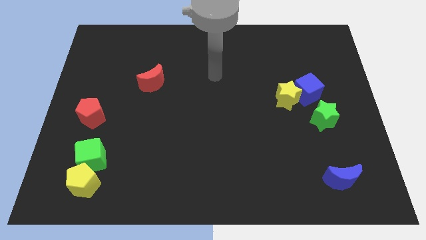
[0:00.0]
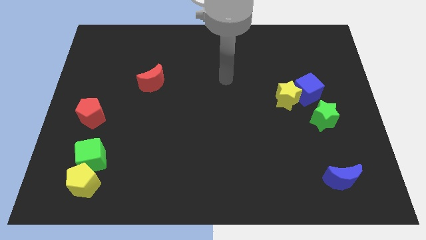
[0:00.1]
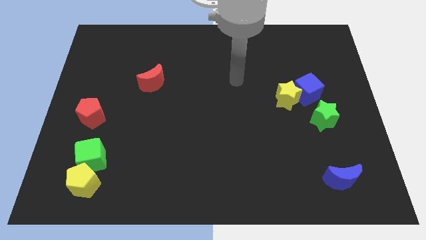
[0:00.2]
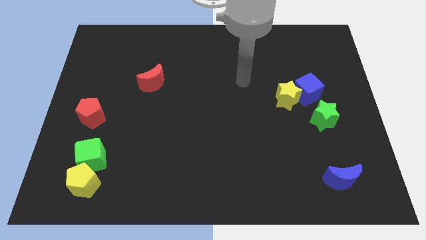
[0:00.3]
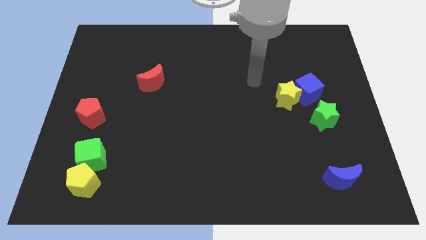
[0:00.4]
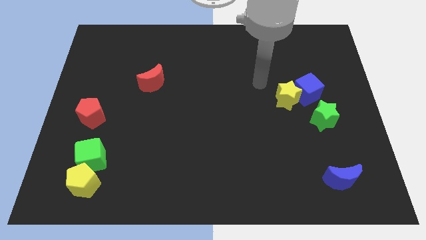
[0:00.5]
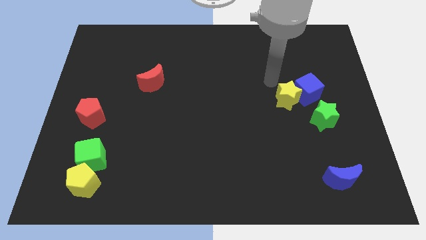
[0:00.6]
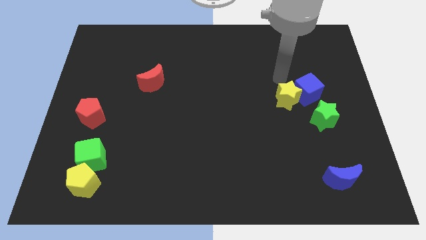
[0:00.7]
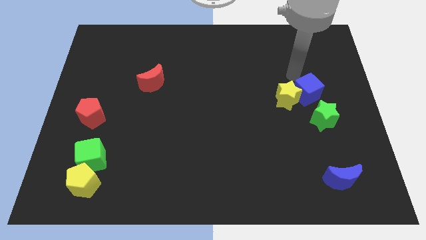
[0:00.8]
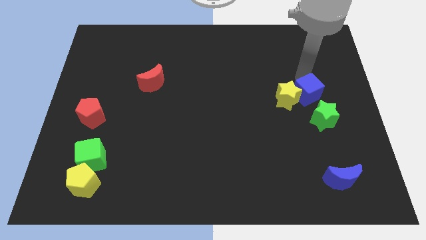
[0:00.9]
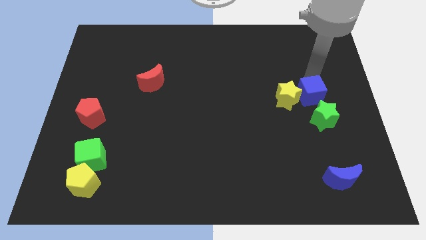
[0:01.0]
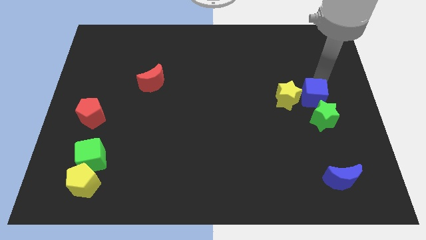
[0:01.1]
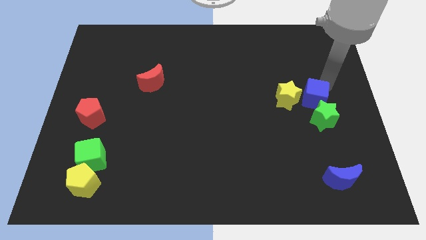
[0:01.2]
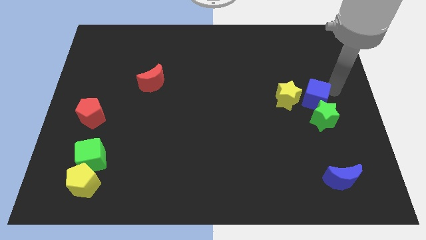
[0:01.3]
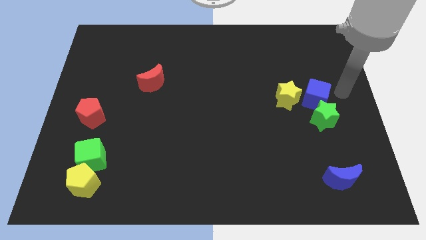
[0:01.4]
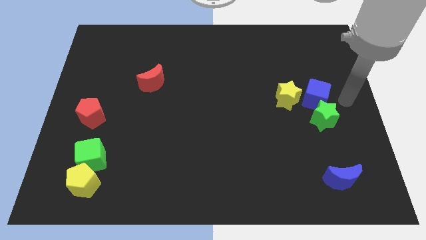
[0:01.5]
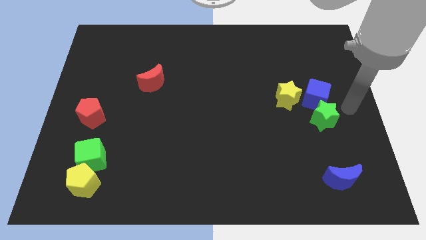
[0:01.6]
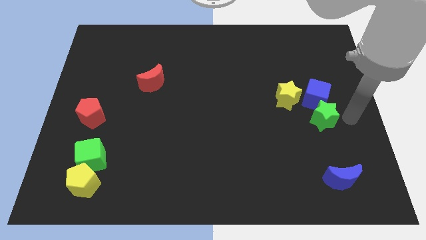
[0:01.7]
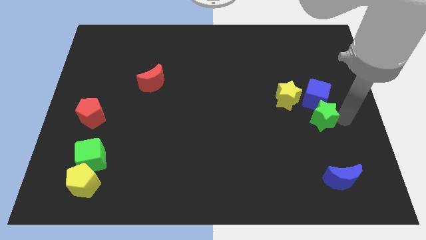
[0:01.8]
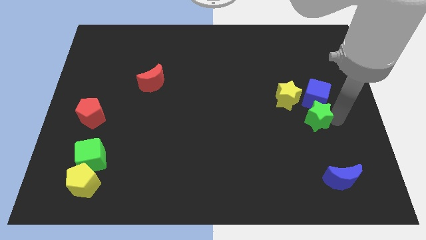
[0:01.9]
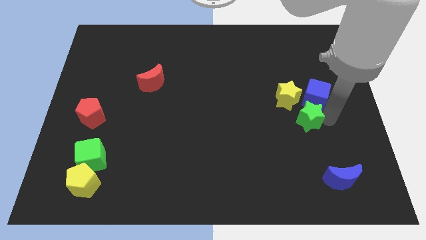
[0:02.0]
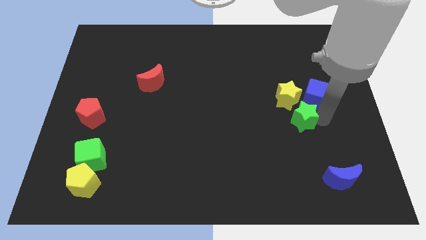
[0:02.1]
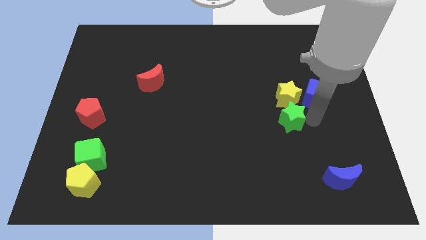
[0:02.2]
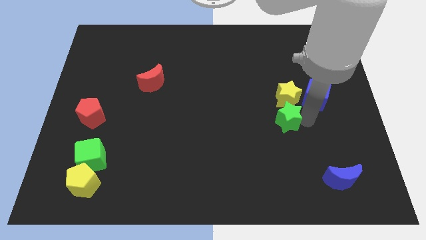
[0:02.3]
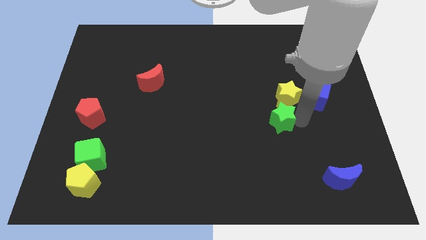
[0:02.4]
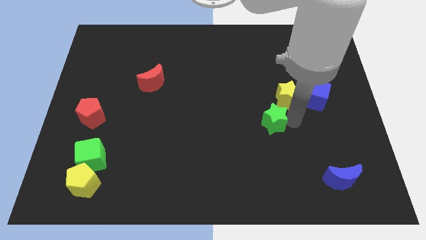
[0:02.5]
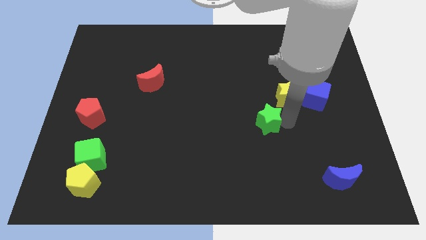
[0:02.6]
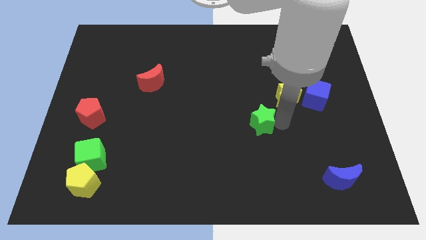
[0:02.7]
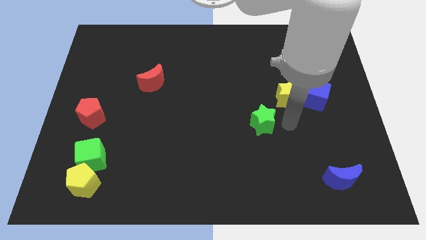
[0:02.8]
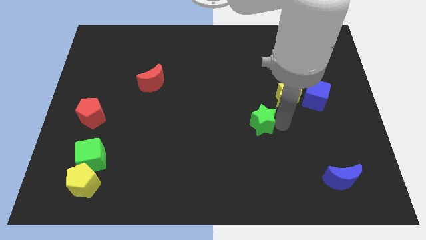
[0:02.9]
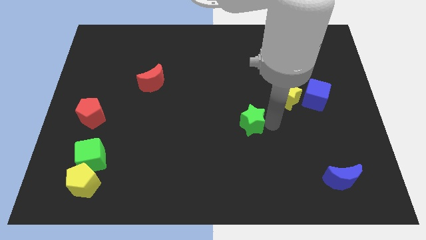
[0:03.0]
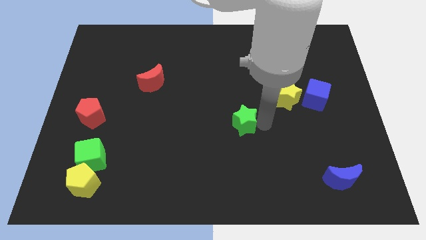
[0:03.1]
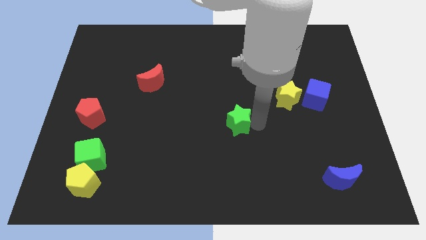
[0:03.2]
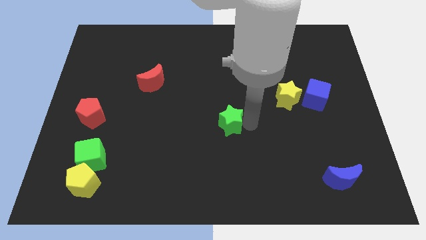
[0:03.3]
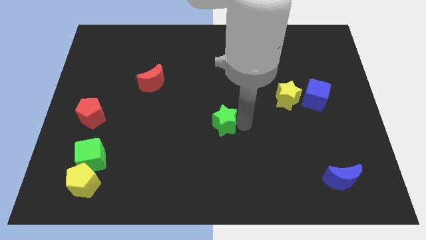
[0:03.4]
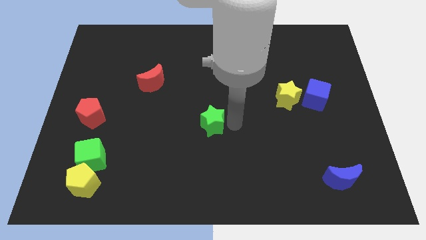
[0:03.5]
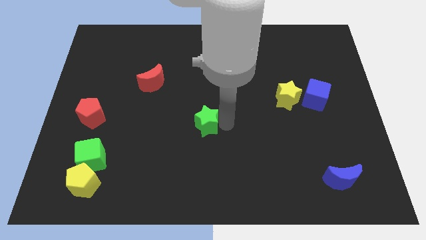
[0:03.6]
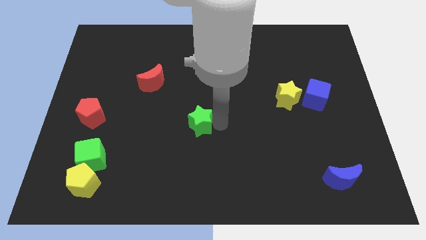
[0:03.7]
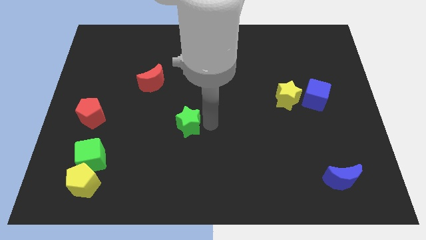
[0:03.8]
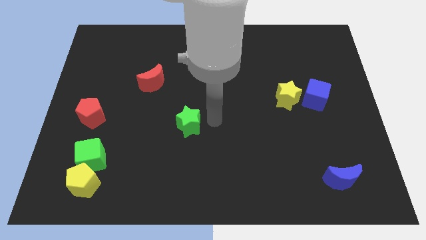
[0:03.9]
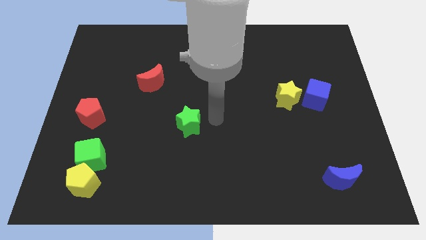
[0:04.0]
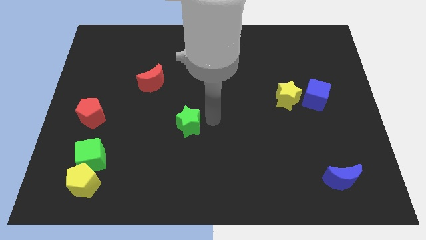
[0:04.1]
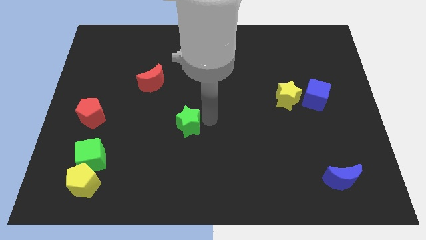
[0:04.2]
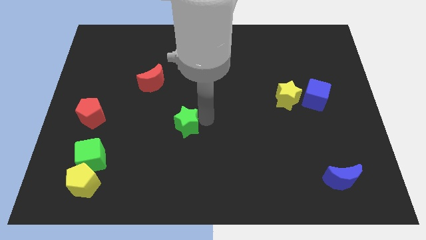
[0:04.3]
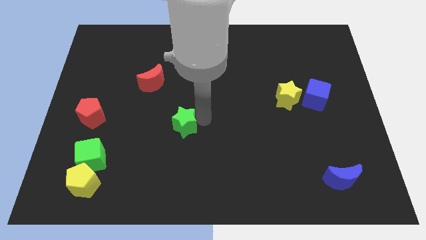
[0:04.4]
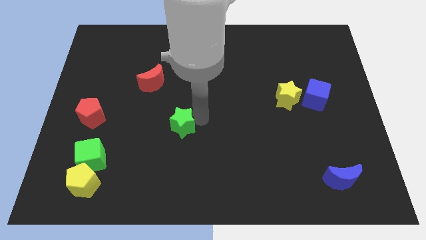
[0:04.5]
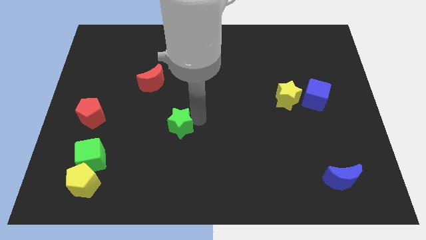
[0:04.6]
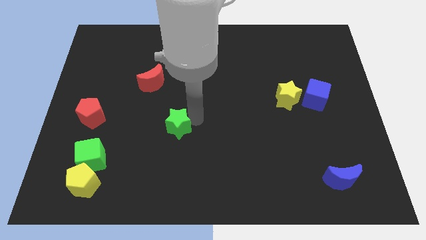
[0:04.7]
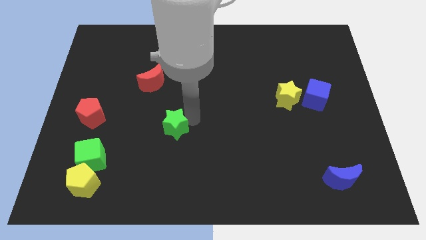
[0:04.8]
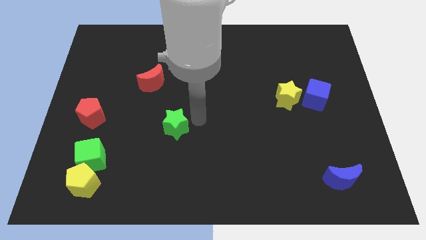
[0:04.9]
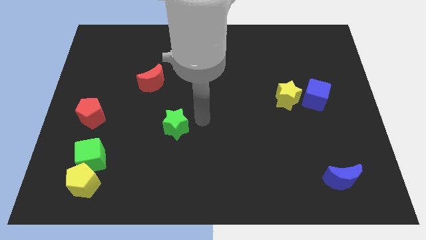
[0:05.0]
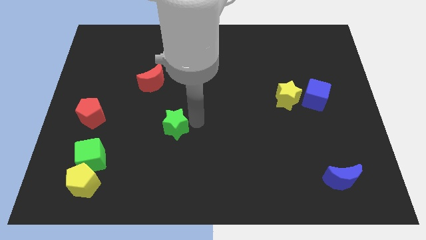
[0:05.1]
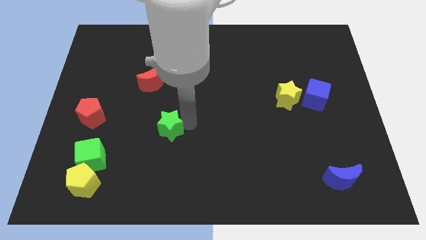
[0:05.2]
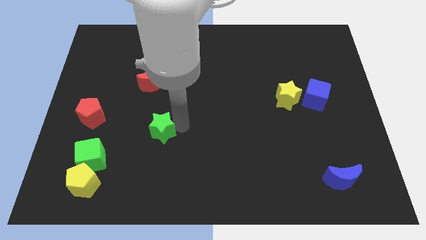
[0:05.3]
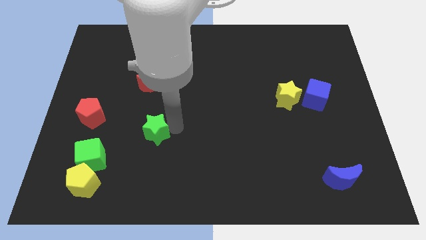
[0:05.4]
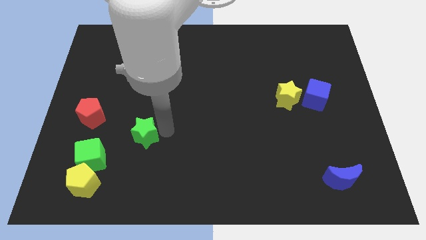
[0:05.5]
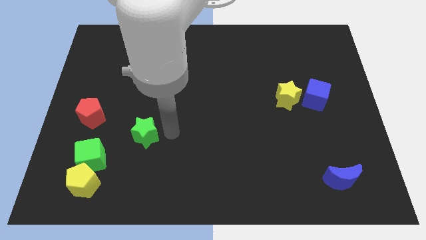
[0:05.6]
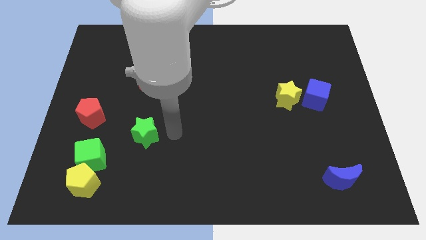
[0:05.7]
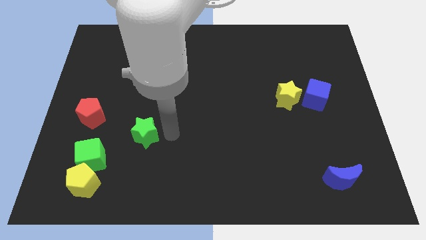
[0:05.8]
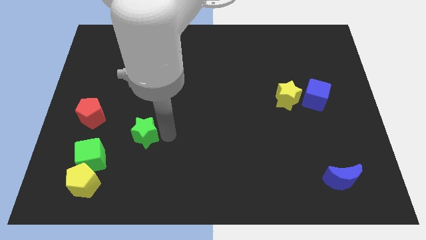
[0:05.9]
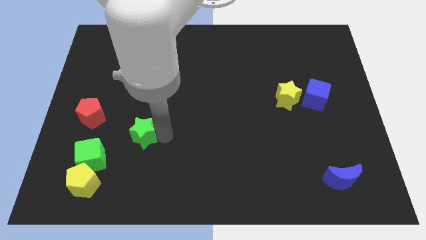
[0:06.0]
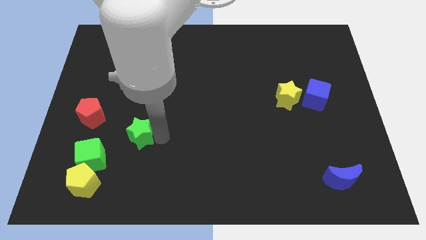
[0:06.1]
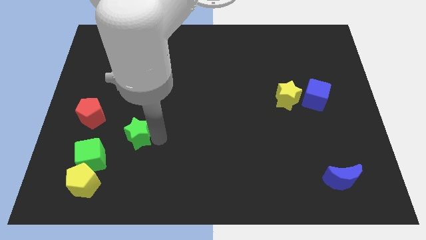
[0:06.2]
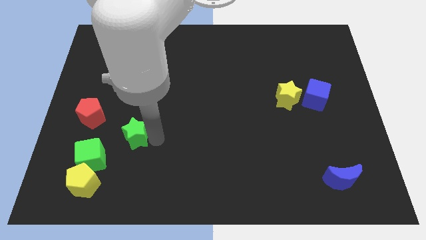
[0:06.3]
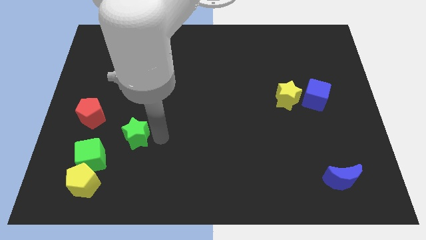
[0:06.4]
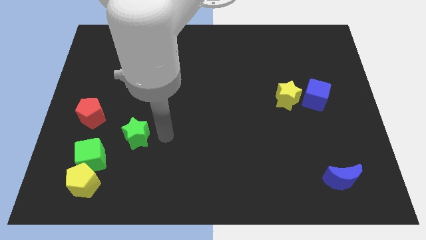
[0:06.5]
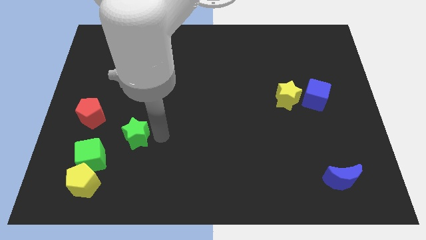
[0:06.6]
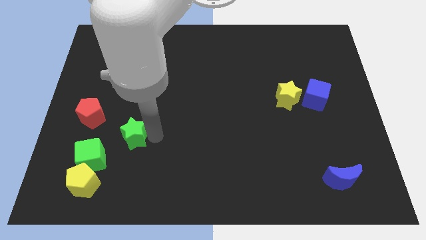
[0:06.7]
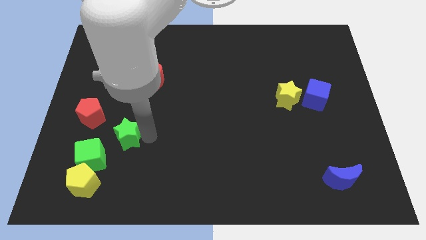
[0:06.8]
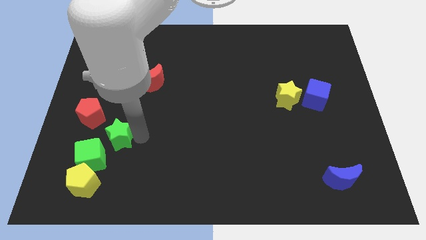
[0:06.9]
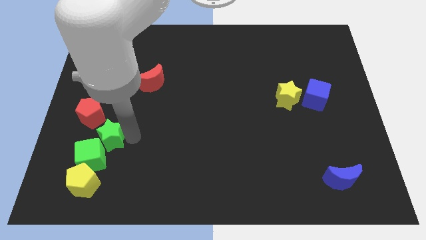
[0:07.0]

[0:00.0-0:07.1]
move the green star to the top side of the yellow pentagon
